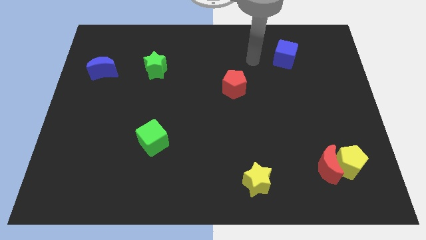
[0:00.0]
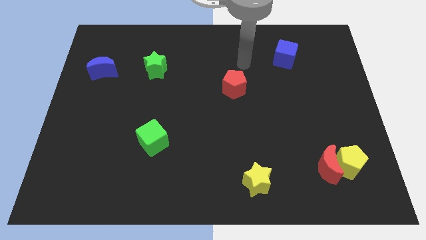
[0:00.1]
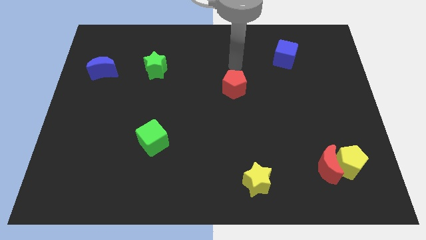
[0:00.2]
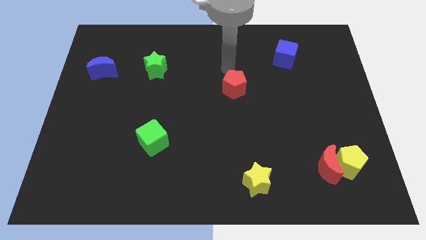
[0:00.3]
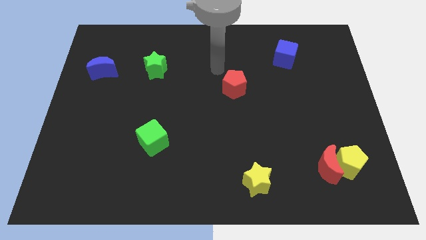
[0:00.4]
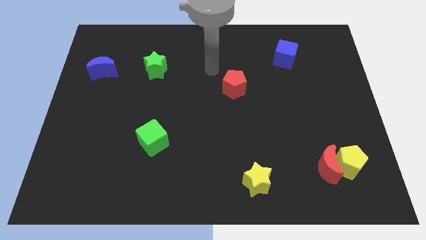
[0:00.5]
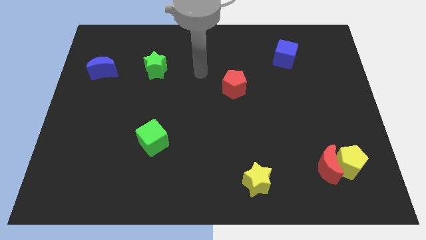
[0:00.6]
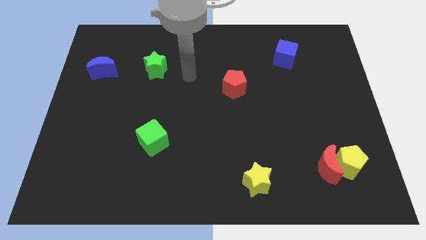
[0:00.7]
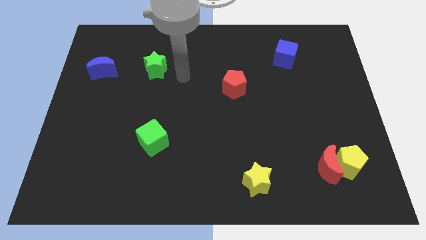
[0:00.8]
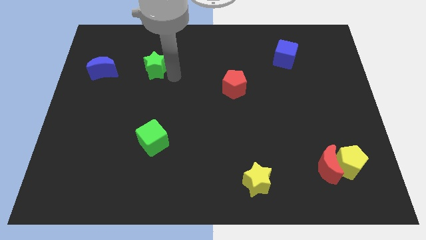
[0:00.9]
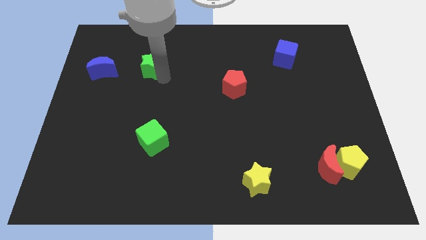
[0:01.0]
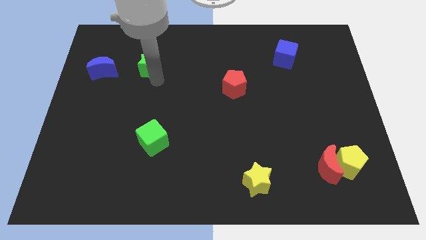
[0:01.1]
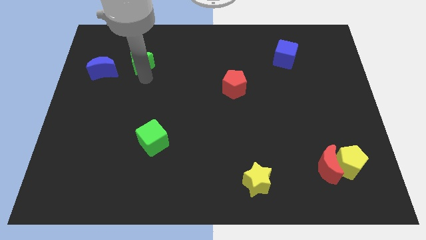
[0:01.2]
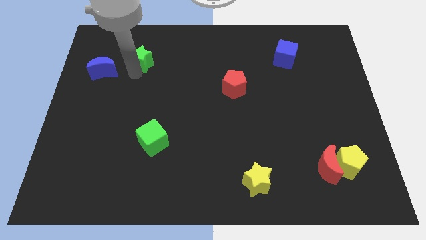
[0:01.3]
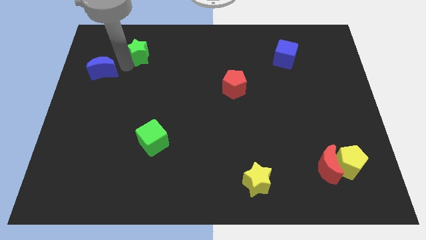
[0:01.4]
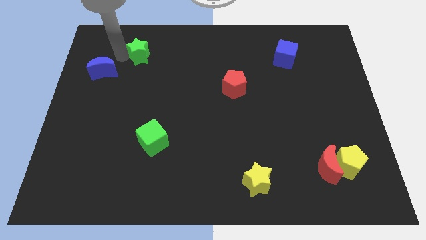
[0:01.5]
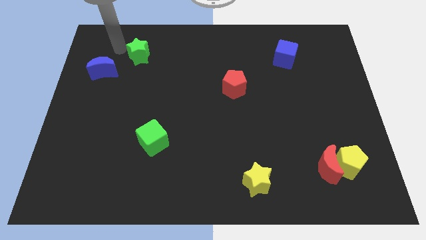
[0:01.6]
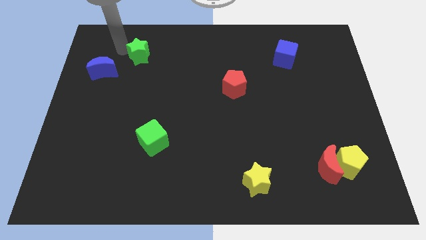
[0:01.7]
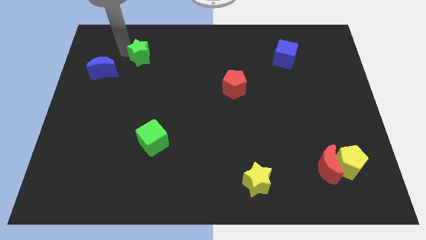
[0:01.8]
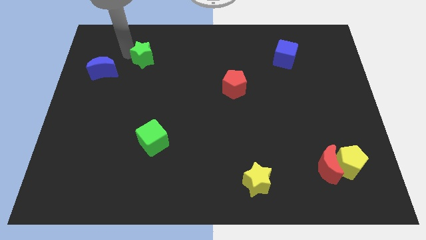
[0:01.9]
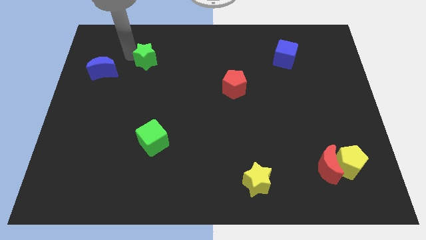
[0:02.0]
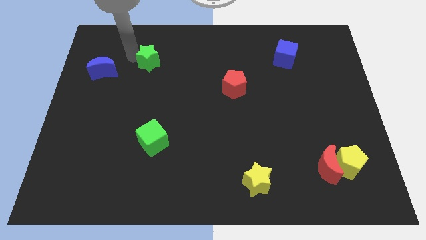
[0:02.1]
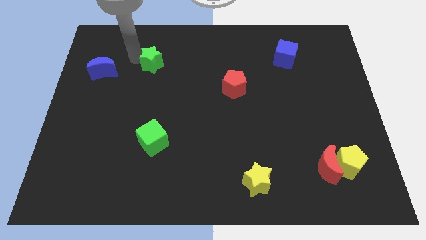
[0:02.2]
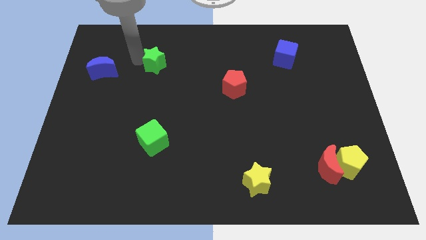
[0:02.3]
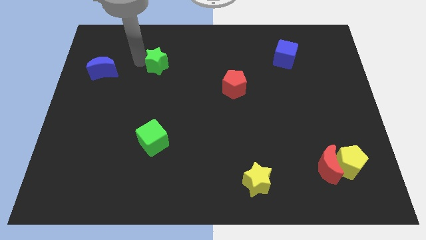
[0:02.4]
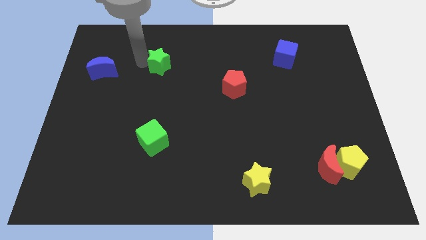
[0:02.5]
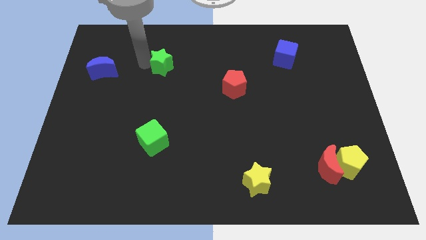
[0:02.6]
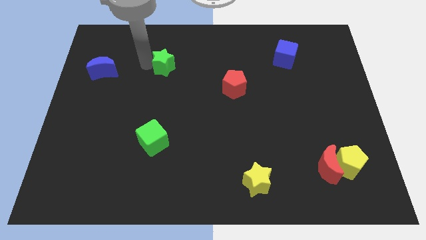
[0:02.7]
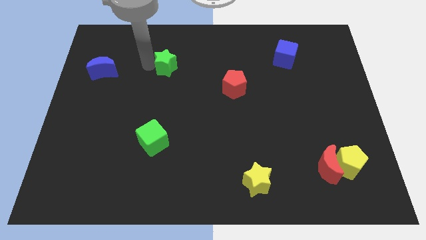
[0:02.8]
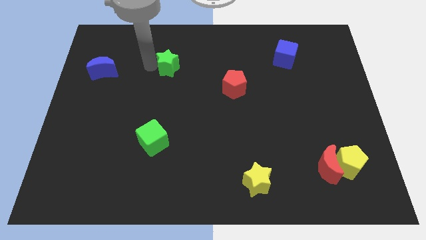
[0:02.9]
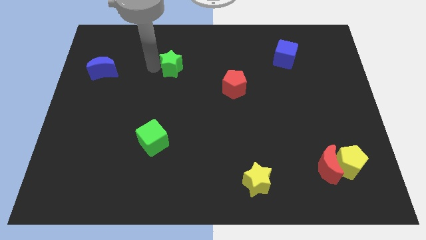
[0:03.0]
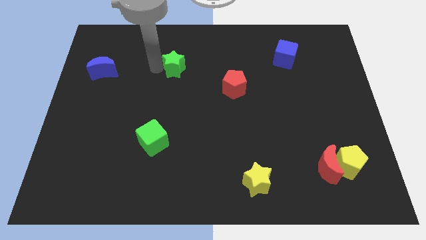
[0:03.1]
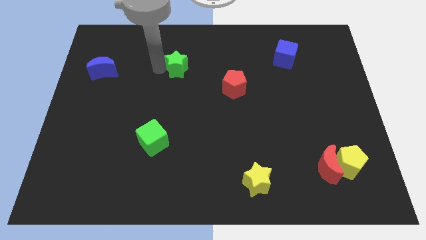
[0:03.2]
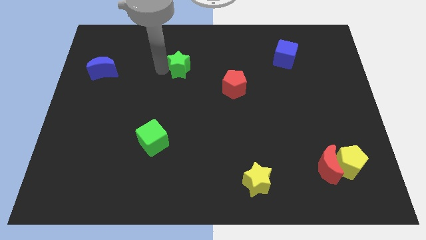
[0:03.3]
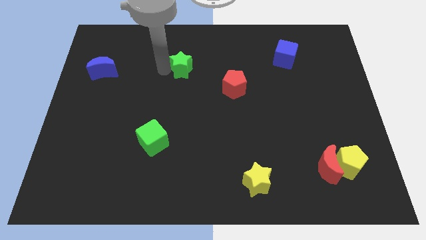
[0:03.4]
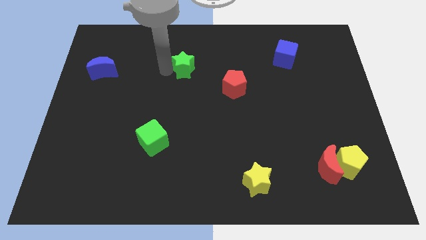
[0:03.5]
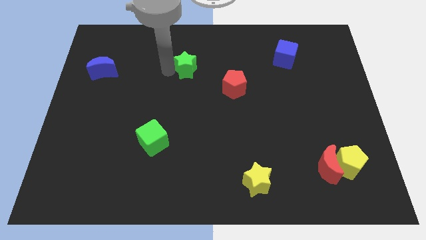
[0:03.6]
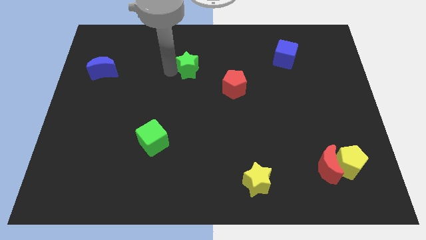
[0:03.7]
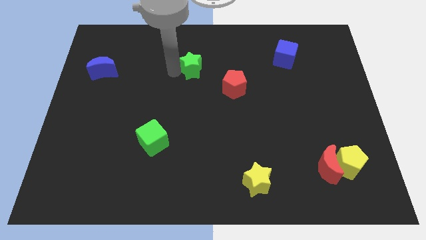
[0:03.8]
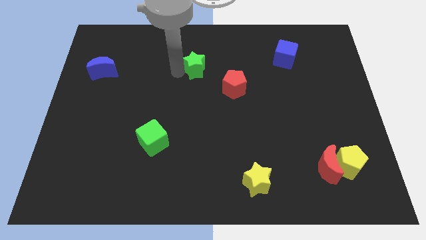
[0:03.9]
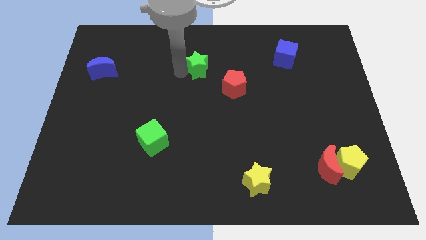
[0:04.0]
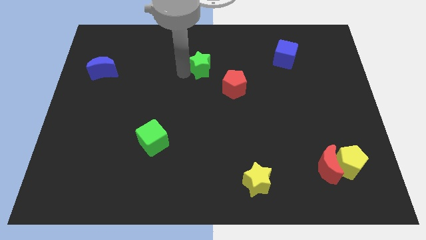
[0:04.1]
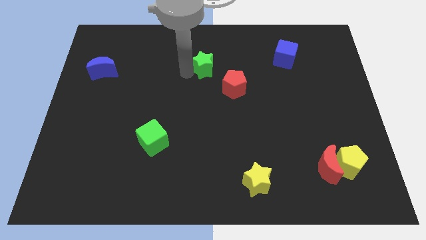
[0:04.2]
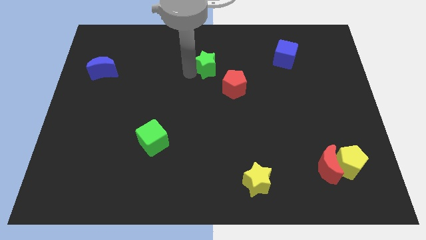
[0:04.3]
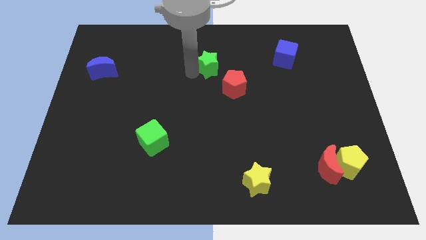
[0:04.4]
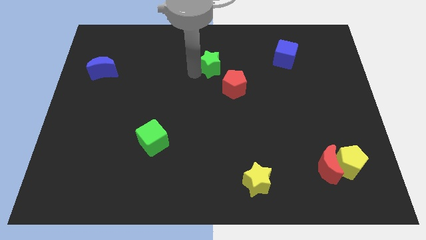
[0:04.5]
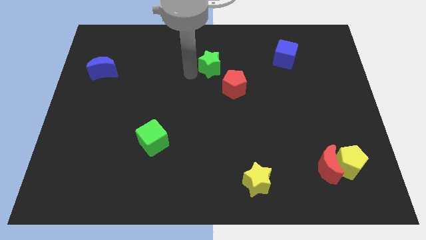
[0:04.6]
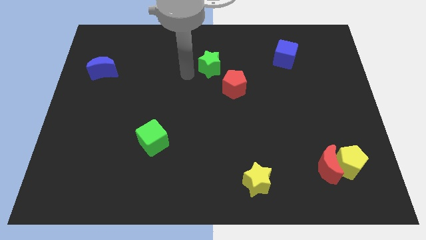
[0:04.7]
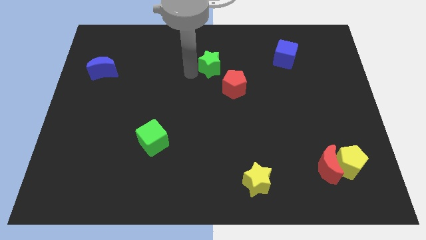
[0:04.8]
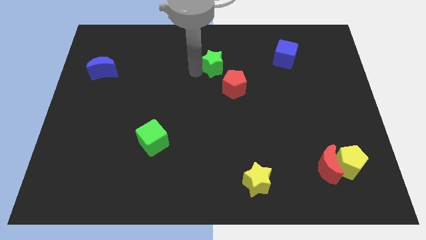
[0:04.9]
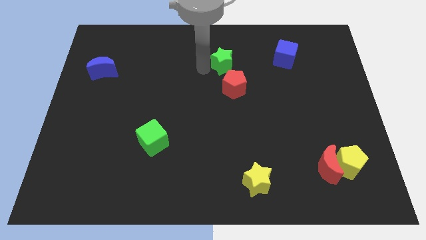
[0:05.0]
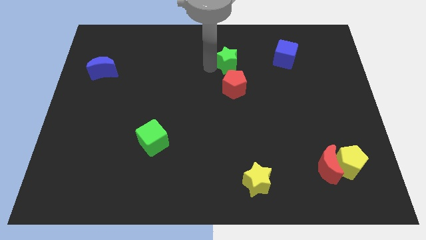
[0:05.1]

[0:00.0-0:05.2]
push the green star to the left side of the blue cube

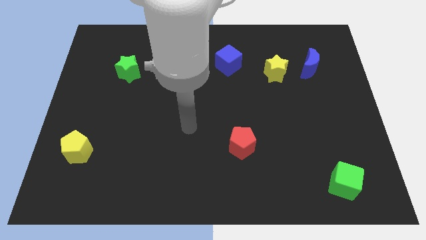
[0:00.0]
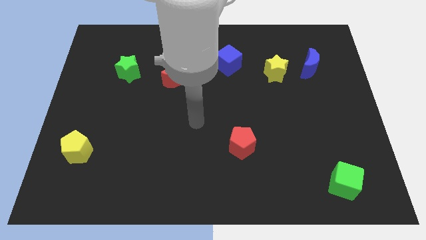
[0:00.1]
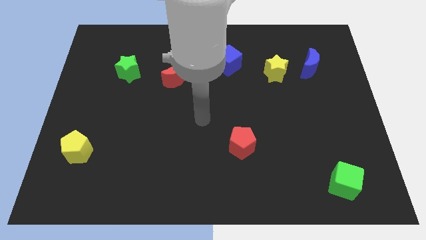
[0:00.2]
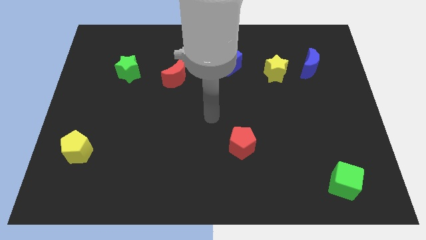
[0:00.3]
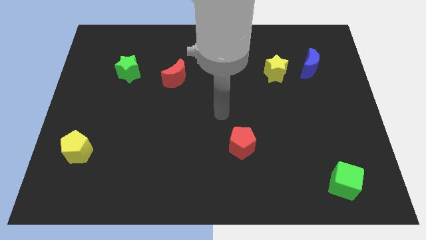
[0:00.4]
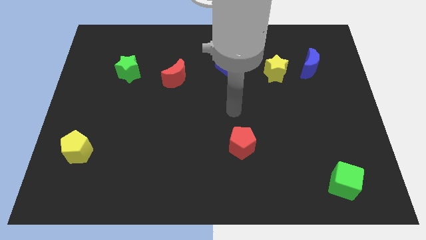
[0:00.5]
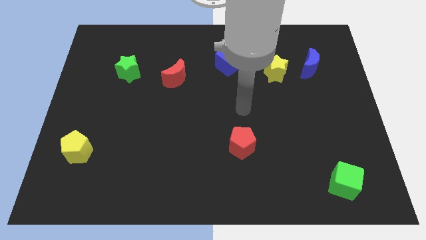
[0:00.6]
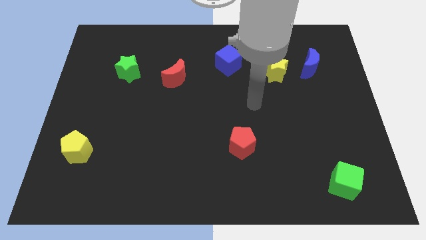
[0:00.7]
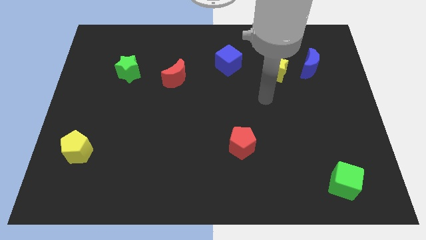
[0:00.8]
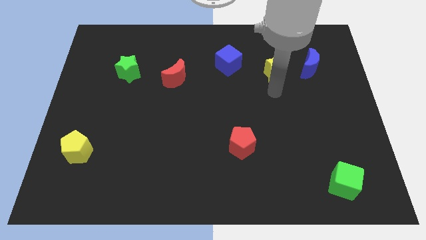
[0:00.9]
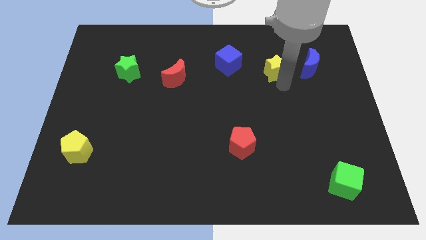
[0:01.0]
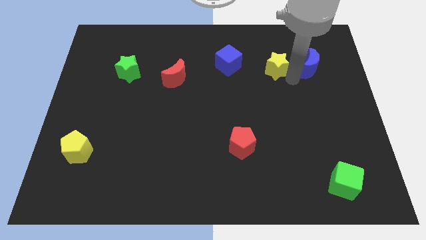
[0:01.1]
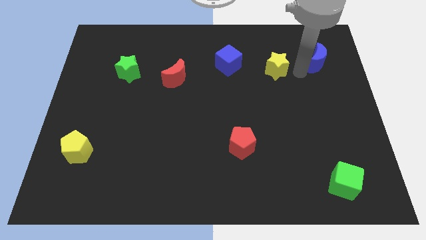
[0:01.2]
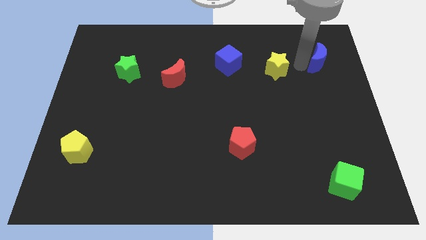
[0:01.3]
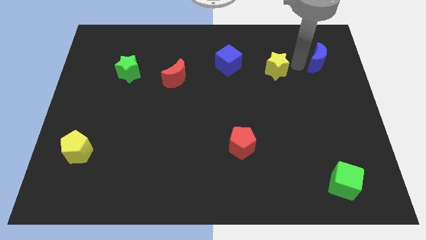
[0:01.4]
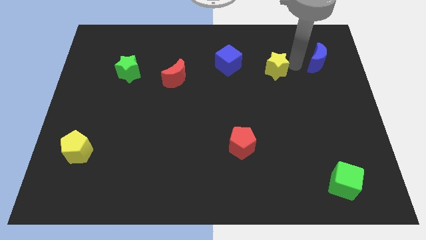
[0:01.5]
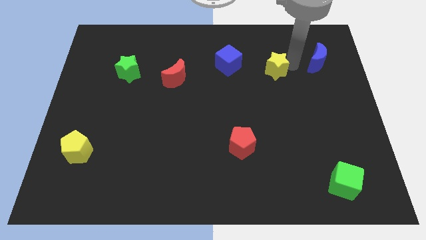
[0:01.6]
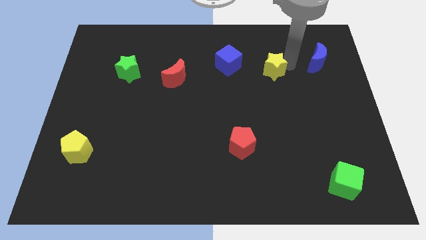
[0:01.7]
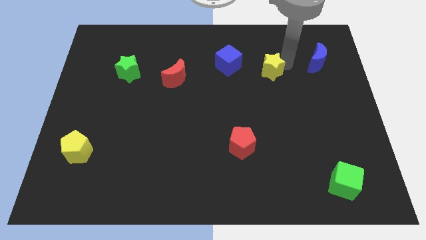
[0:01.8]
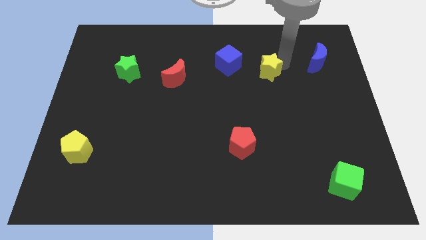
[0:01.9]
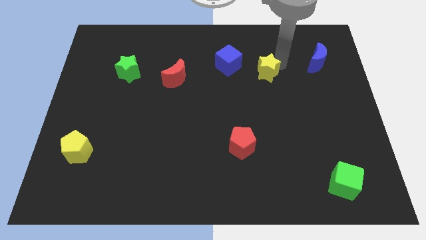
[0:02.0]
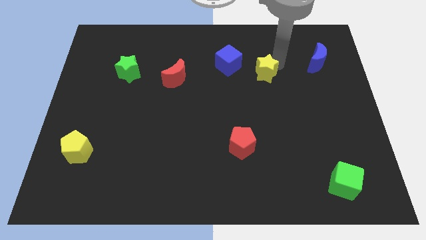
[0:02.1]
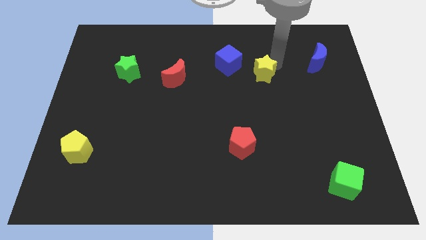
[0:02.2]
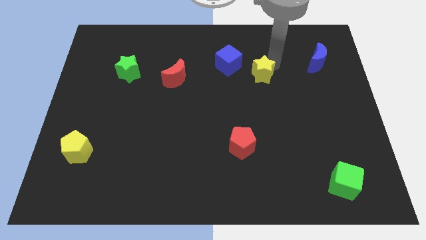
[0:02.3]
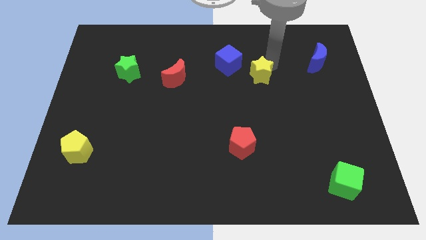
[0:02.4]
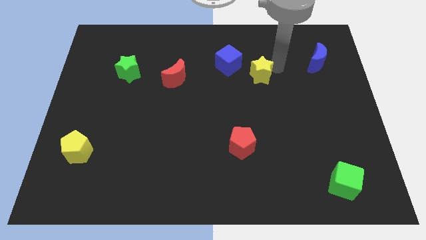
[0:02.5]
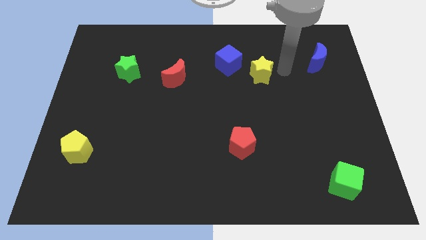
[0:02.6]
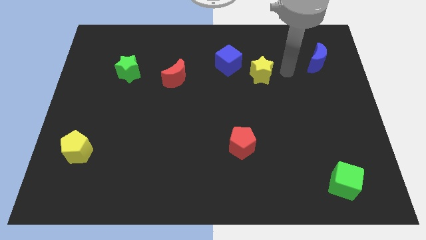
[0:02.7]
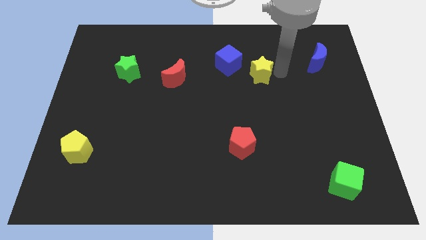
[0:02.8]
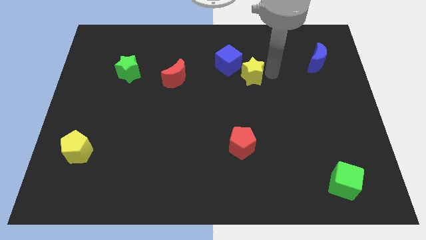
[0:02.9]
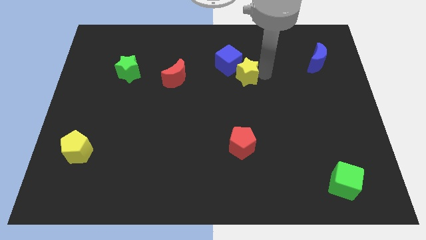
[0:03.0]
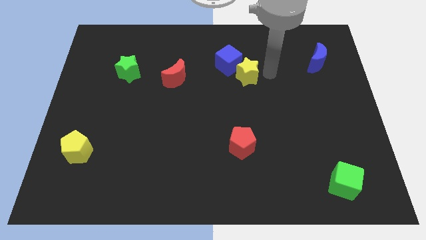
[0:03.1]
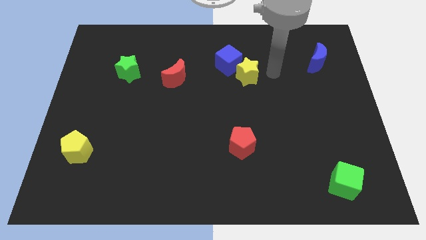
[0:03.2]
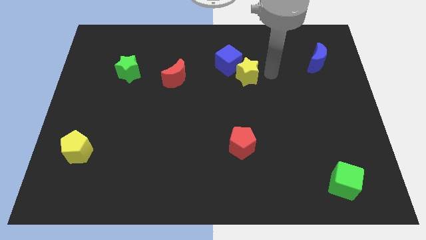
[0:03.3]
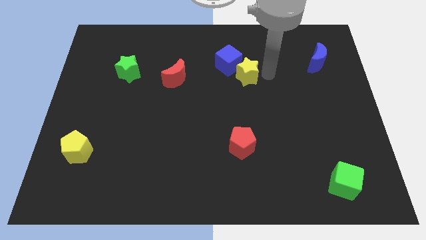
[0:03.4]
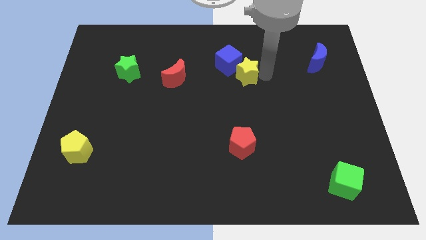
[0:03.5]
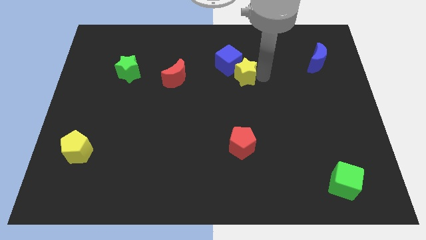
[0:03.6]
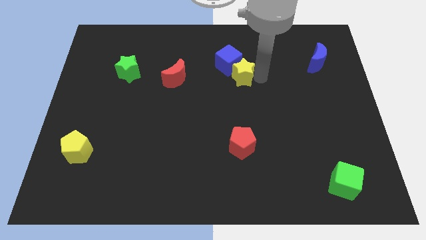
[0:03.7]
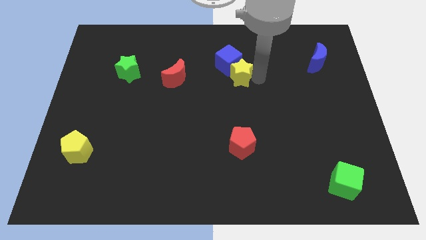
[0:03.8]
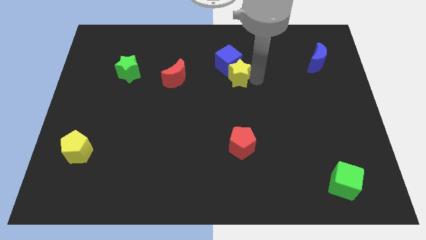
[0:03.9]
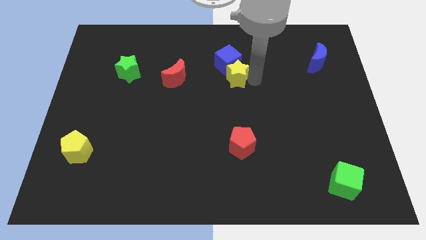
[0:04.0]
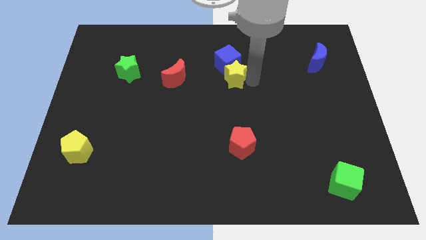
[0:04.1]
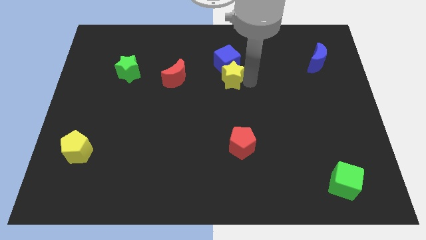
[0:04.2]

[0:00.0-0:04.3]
put the yellow star to the bottom left of the blue cube
